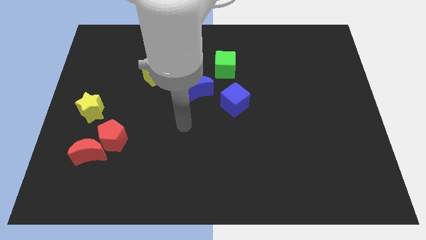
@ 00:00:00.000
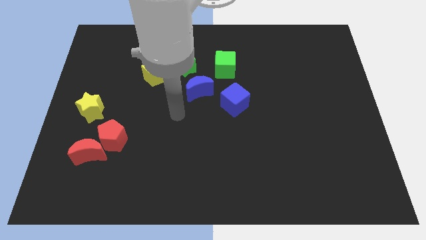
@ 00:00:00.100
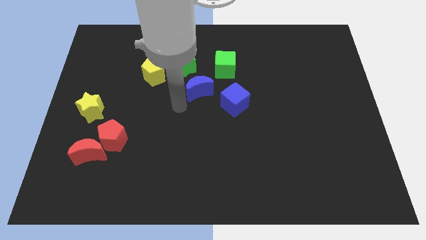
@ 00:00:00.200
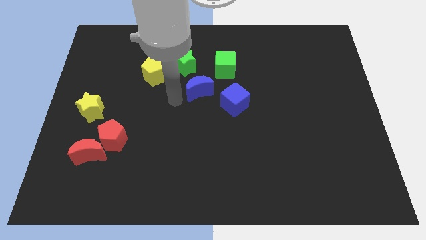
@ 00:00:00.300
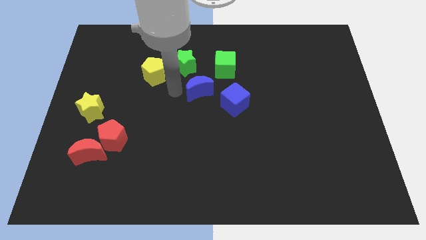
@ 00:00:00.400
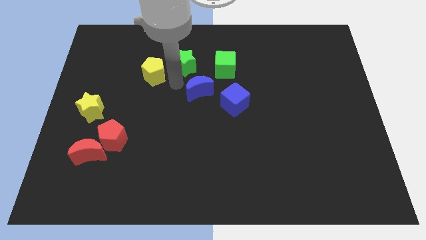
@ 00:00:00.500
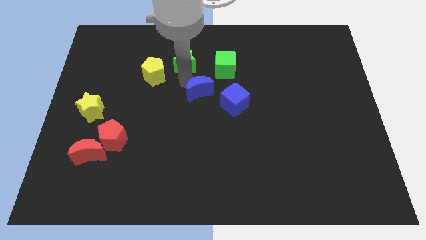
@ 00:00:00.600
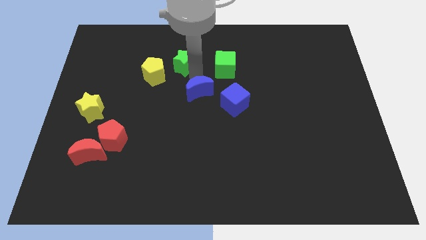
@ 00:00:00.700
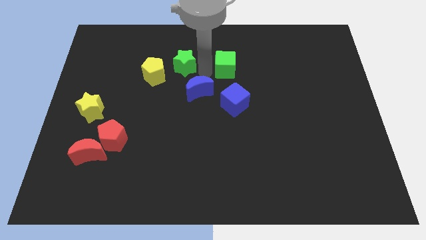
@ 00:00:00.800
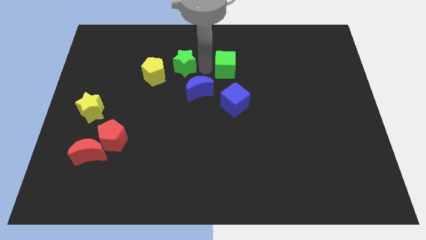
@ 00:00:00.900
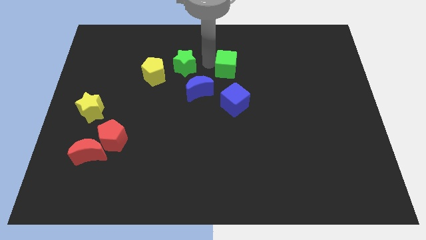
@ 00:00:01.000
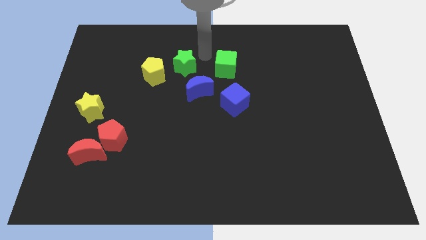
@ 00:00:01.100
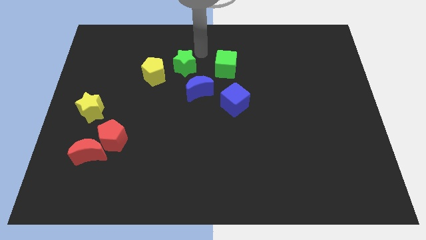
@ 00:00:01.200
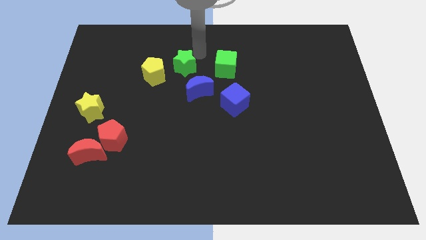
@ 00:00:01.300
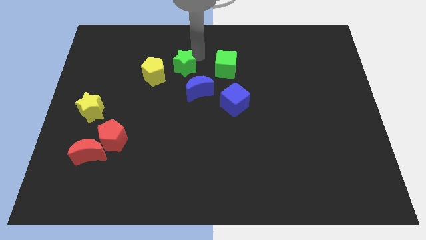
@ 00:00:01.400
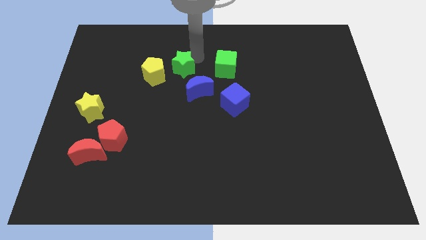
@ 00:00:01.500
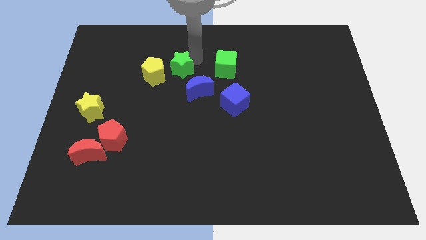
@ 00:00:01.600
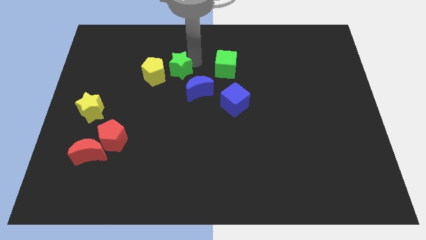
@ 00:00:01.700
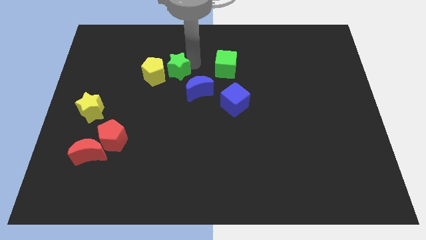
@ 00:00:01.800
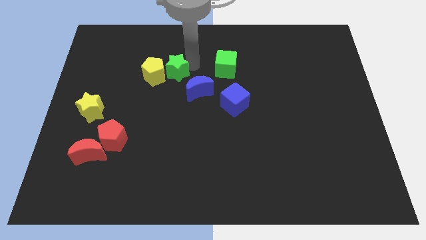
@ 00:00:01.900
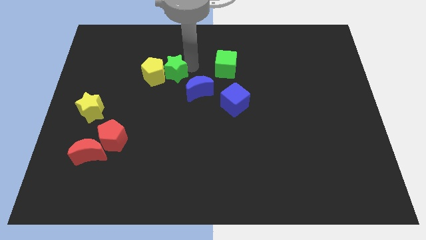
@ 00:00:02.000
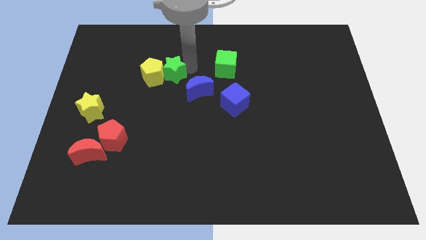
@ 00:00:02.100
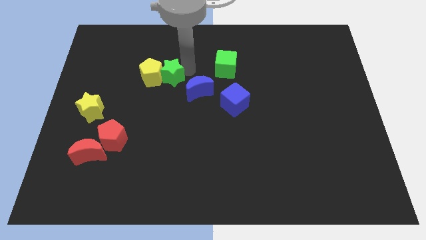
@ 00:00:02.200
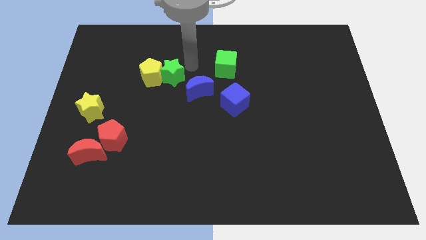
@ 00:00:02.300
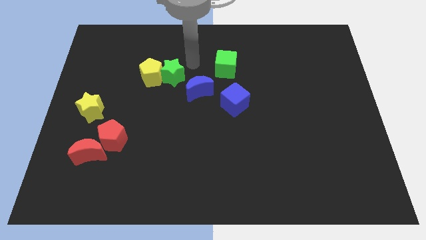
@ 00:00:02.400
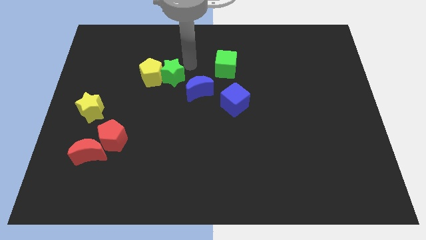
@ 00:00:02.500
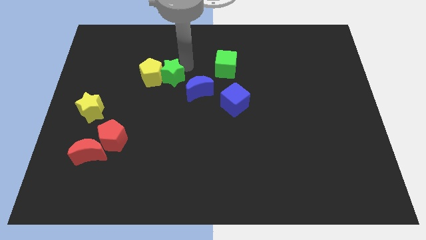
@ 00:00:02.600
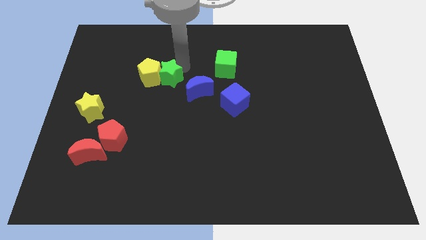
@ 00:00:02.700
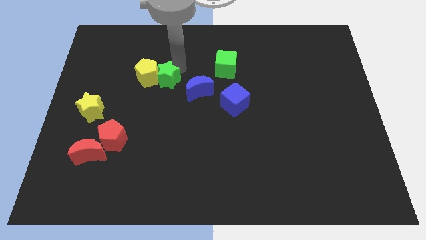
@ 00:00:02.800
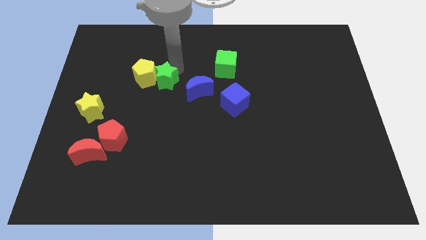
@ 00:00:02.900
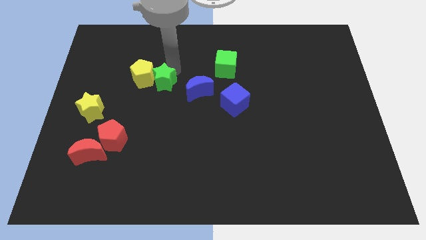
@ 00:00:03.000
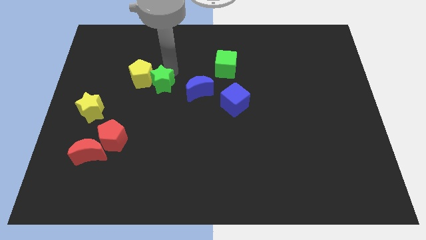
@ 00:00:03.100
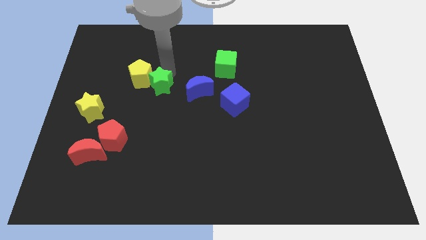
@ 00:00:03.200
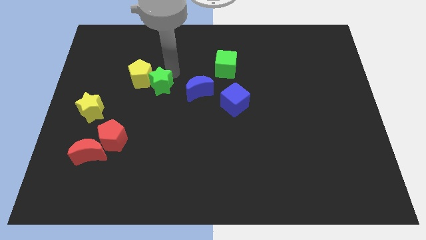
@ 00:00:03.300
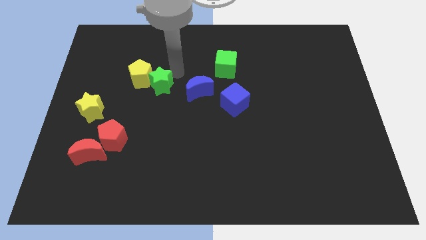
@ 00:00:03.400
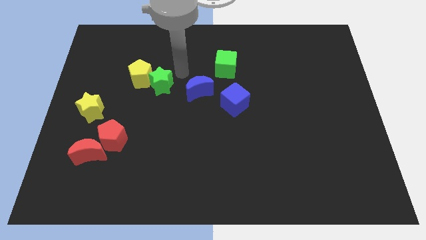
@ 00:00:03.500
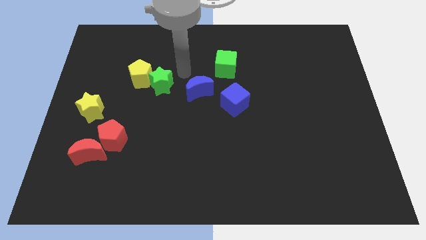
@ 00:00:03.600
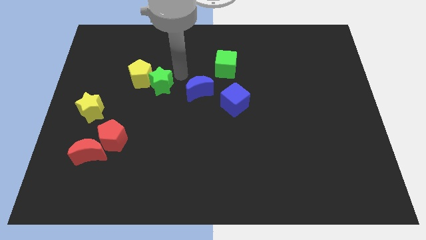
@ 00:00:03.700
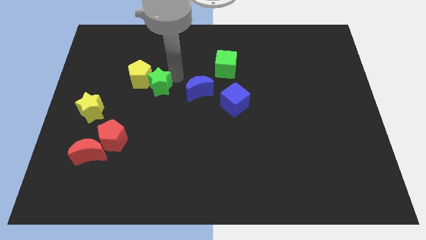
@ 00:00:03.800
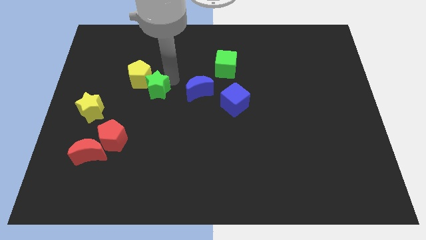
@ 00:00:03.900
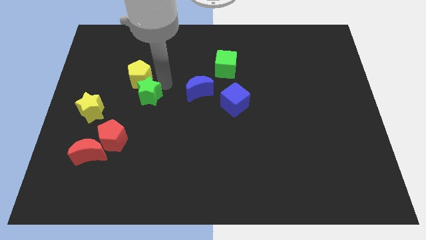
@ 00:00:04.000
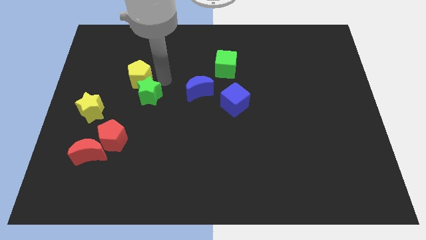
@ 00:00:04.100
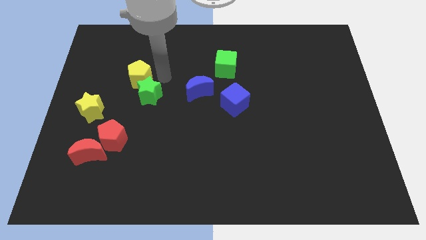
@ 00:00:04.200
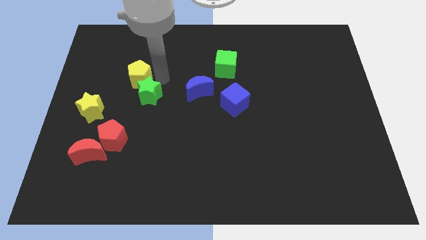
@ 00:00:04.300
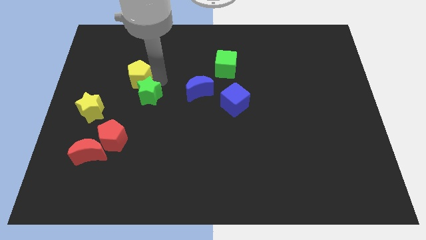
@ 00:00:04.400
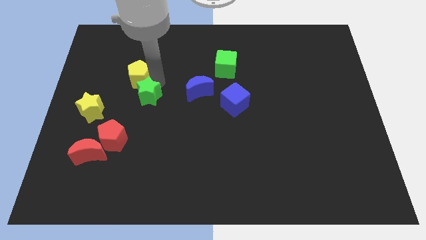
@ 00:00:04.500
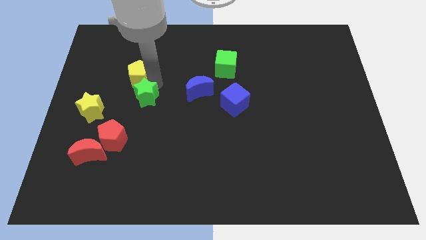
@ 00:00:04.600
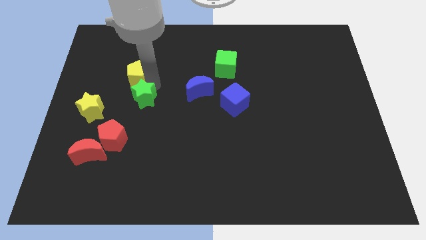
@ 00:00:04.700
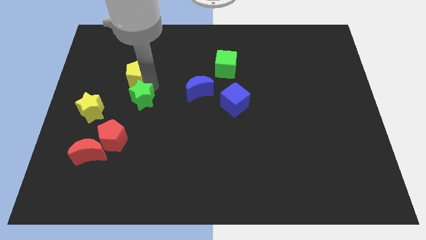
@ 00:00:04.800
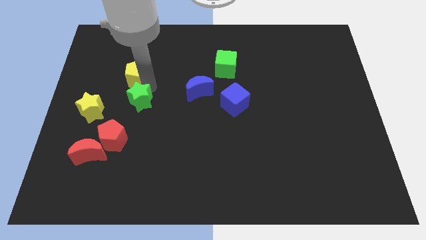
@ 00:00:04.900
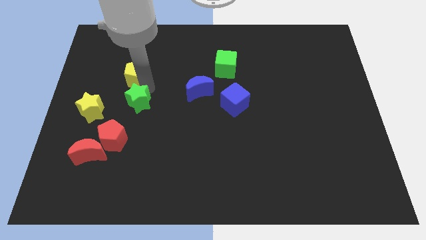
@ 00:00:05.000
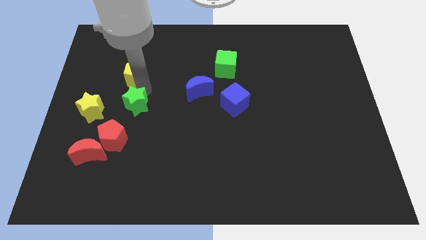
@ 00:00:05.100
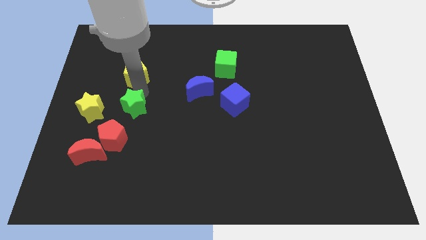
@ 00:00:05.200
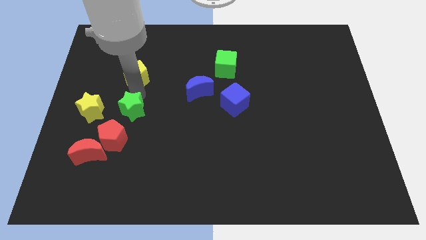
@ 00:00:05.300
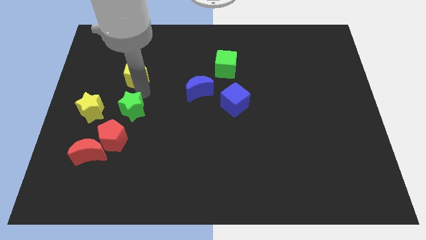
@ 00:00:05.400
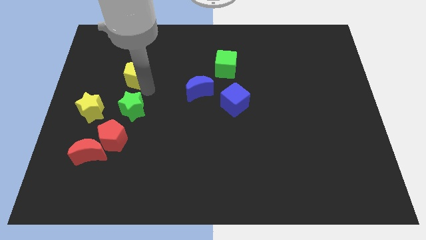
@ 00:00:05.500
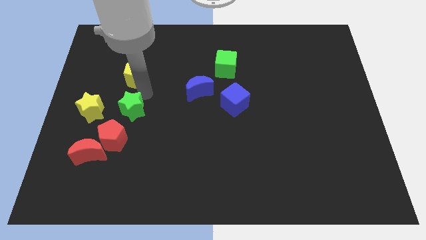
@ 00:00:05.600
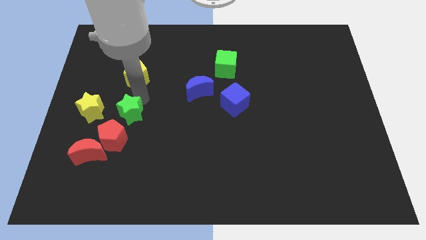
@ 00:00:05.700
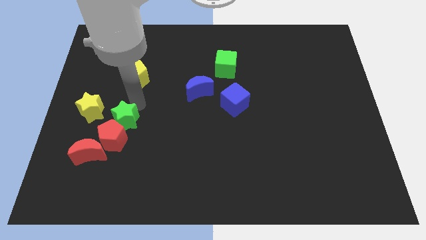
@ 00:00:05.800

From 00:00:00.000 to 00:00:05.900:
push the green star to the top right of the red moon

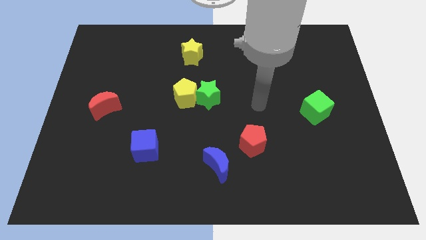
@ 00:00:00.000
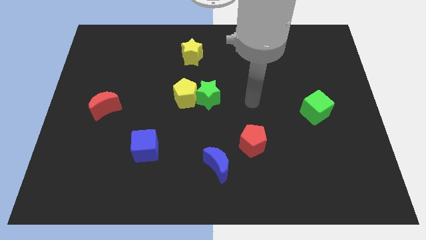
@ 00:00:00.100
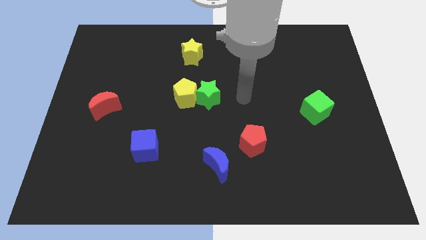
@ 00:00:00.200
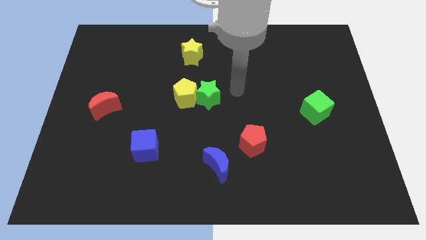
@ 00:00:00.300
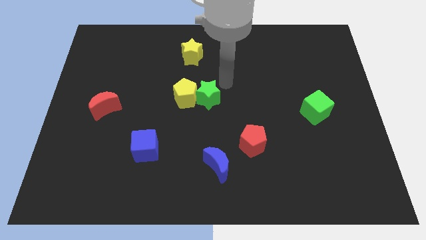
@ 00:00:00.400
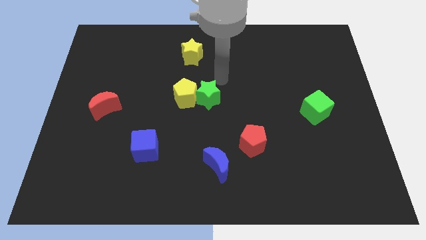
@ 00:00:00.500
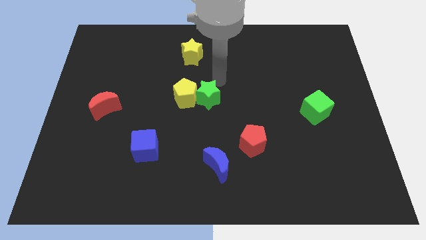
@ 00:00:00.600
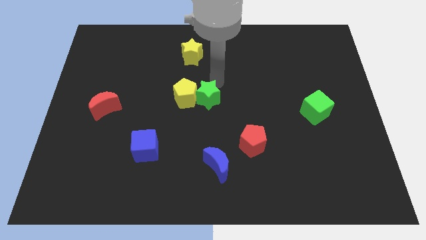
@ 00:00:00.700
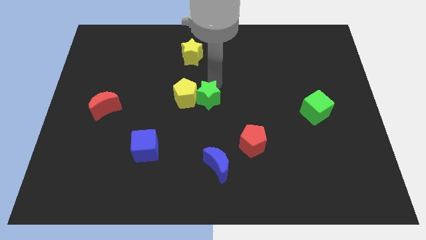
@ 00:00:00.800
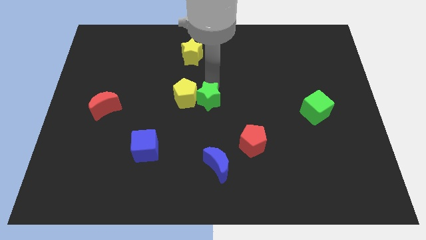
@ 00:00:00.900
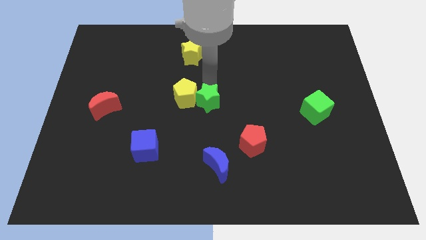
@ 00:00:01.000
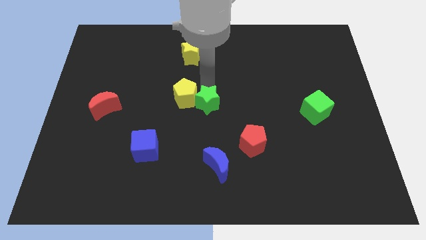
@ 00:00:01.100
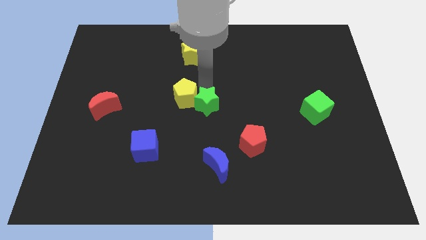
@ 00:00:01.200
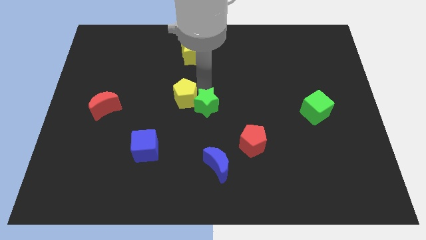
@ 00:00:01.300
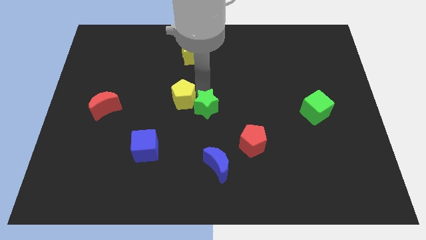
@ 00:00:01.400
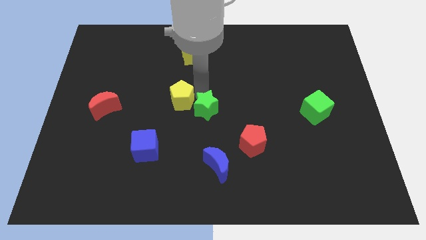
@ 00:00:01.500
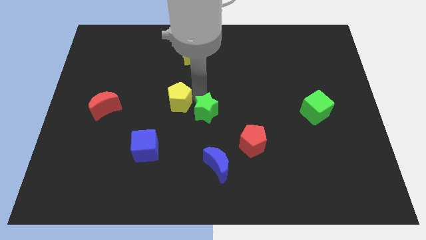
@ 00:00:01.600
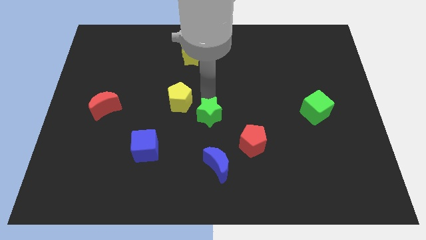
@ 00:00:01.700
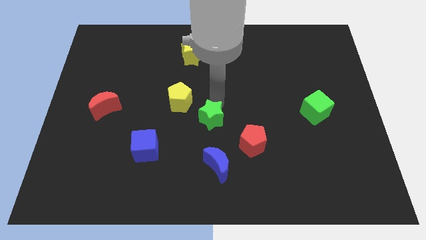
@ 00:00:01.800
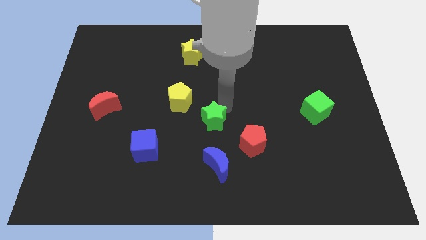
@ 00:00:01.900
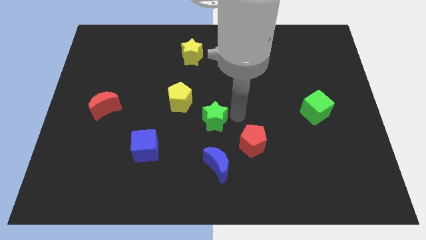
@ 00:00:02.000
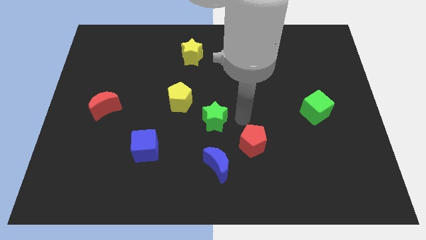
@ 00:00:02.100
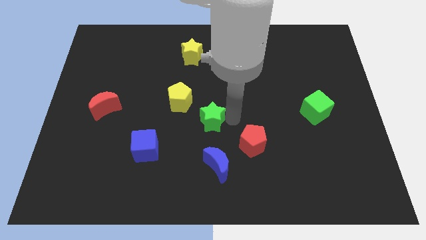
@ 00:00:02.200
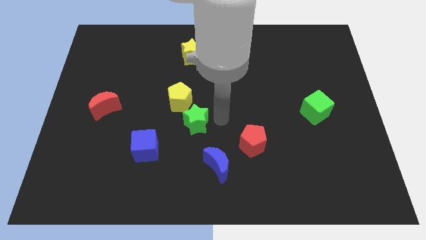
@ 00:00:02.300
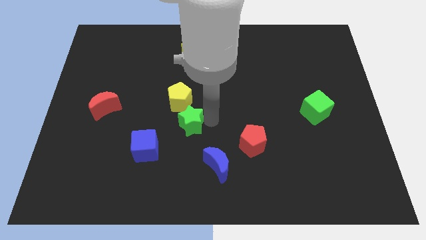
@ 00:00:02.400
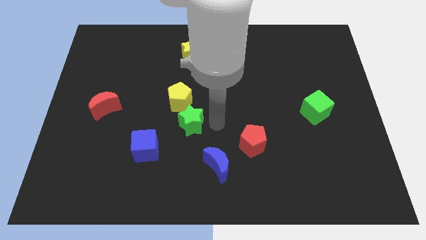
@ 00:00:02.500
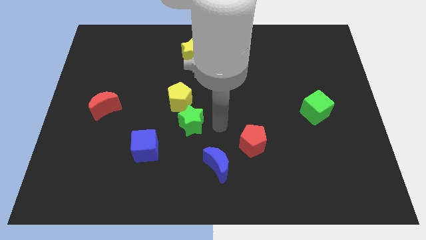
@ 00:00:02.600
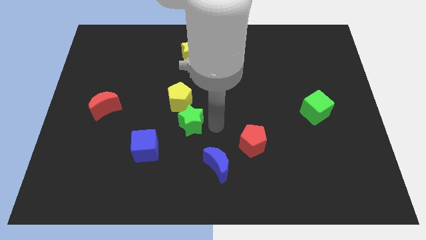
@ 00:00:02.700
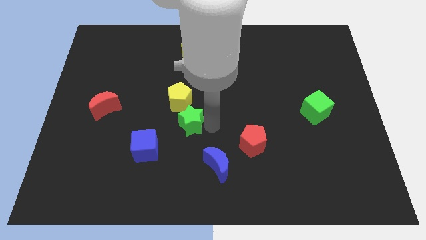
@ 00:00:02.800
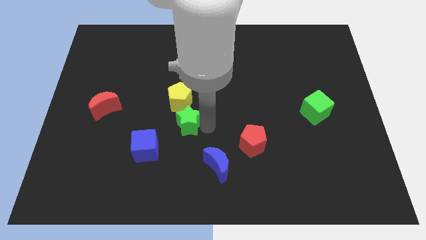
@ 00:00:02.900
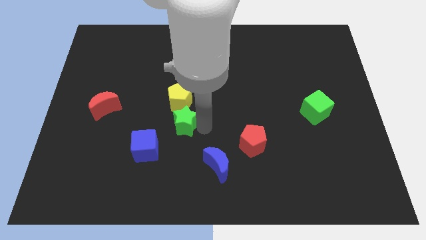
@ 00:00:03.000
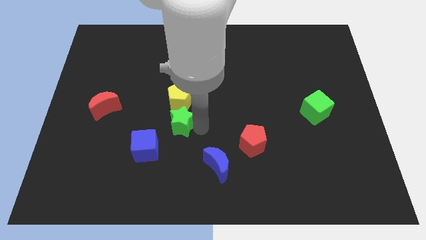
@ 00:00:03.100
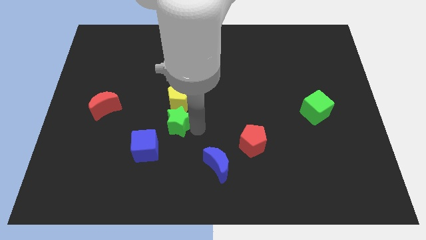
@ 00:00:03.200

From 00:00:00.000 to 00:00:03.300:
slide the green star diagonally down and to the left of the yellow pentagon
